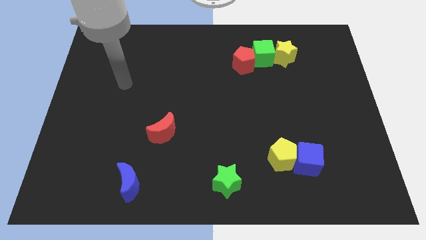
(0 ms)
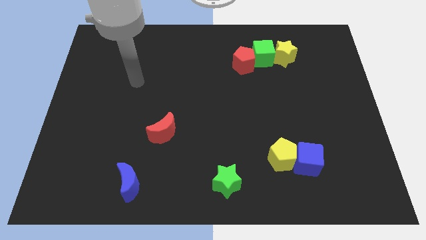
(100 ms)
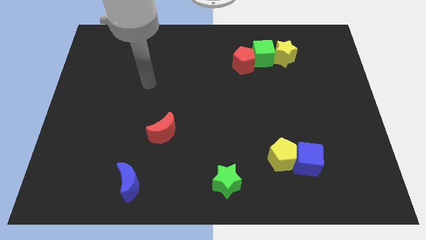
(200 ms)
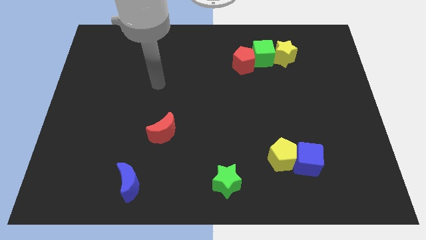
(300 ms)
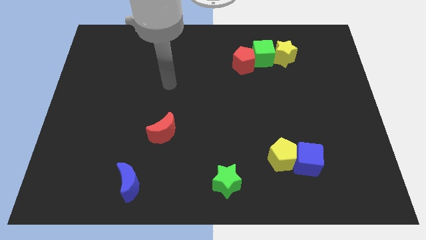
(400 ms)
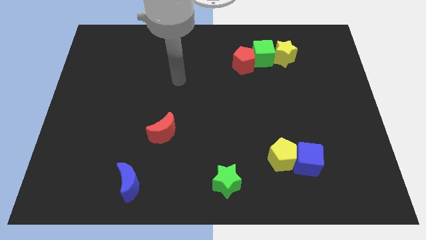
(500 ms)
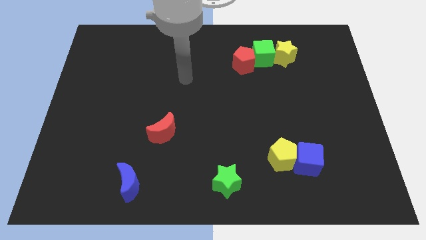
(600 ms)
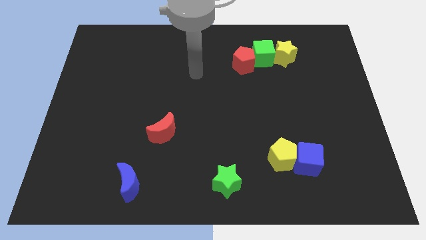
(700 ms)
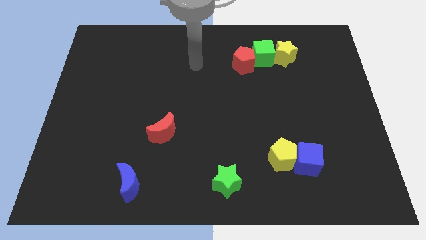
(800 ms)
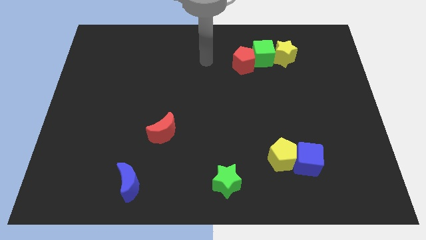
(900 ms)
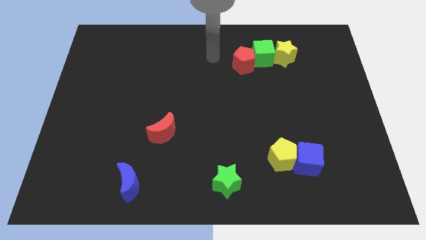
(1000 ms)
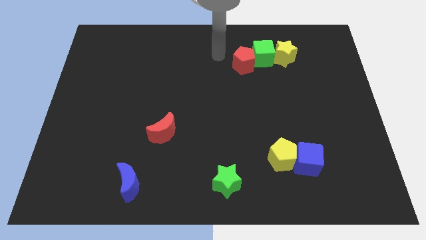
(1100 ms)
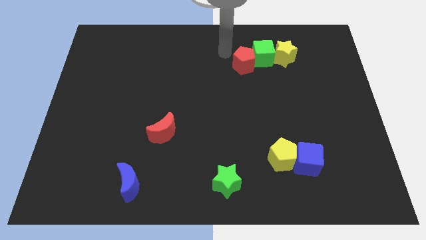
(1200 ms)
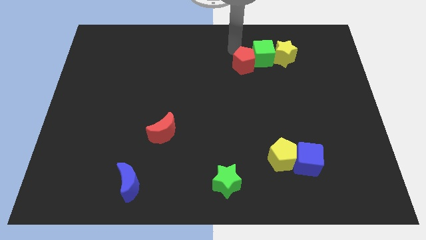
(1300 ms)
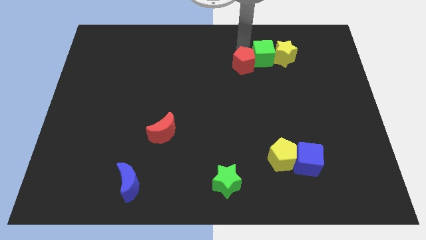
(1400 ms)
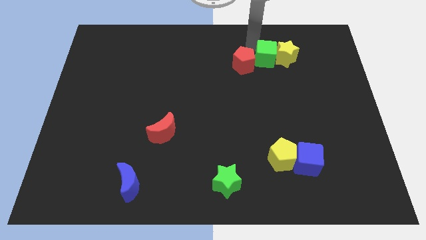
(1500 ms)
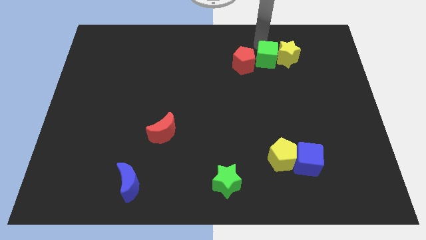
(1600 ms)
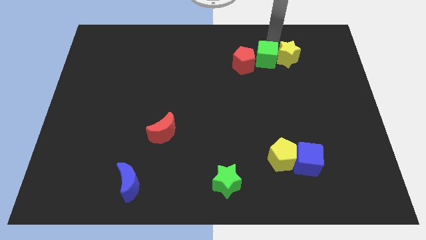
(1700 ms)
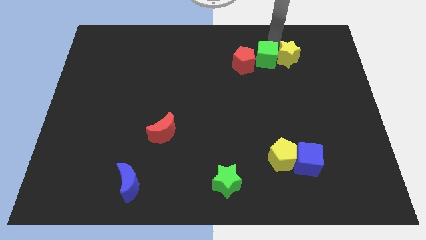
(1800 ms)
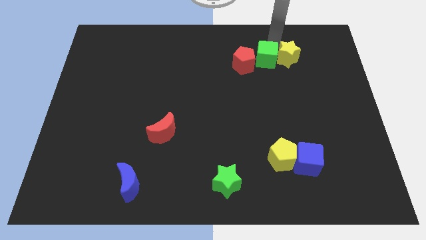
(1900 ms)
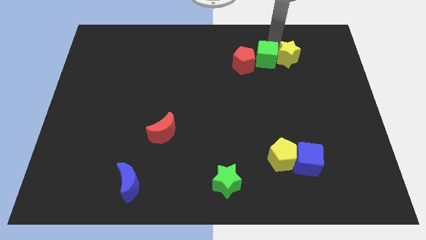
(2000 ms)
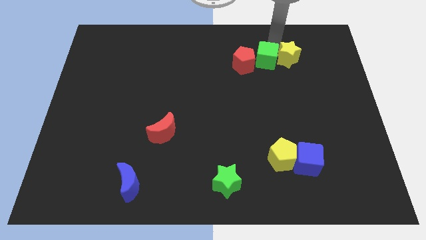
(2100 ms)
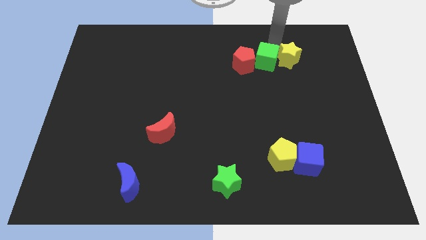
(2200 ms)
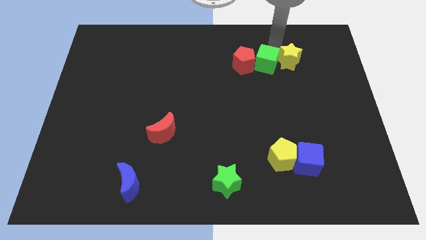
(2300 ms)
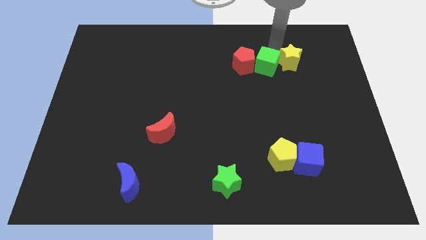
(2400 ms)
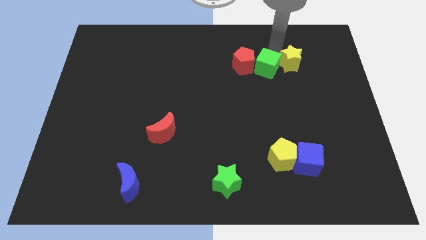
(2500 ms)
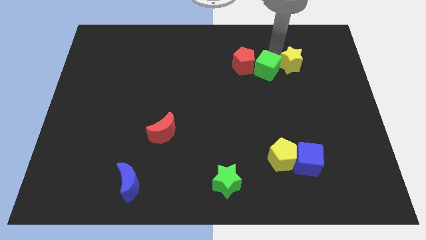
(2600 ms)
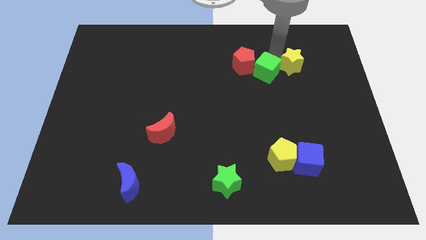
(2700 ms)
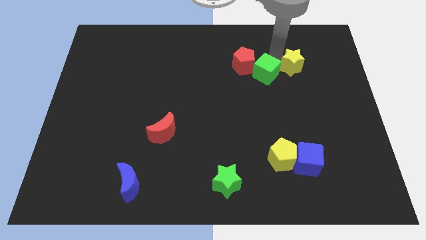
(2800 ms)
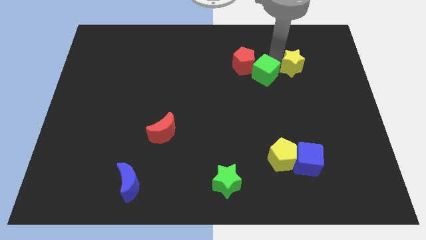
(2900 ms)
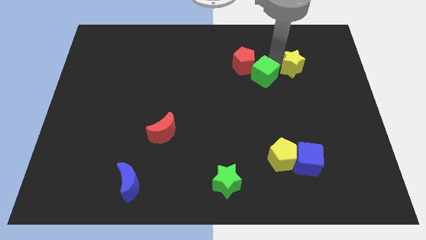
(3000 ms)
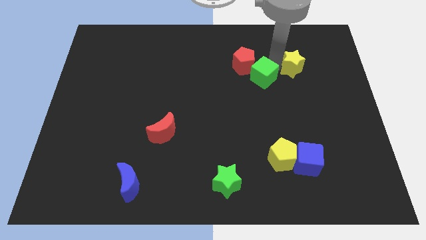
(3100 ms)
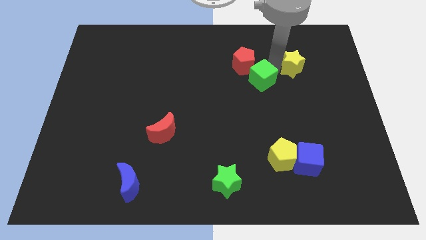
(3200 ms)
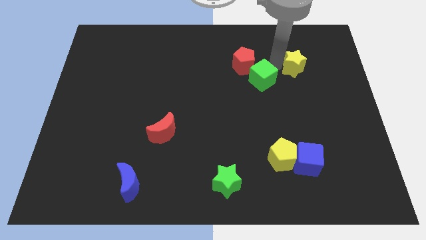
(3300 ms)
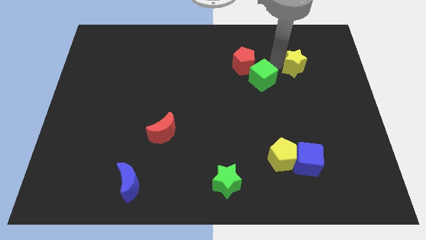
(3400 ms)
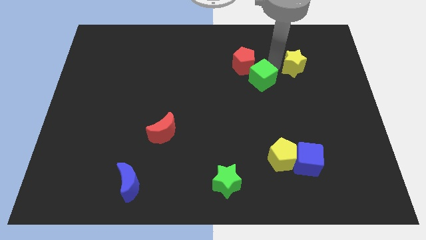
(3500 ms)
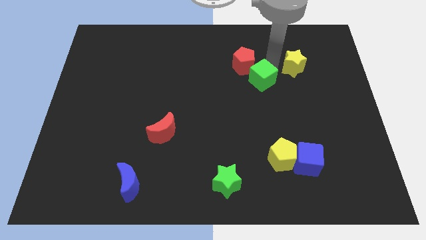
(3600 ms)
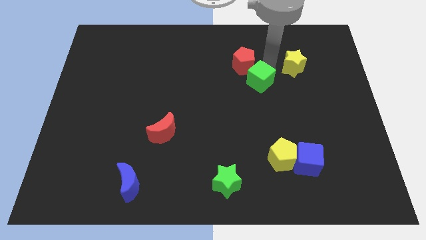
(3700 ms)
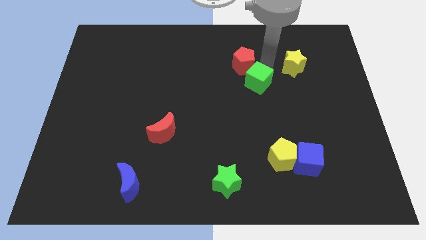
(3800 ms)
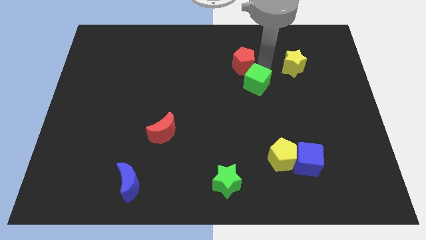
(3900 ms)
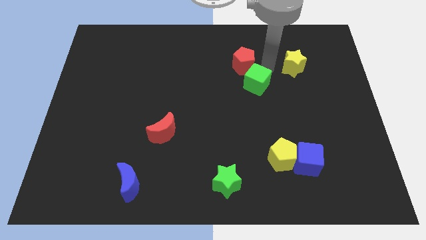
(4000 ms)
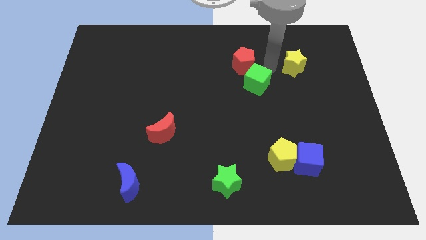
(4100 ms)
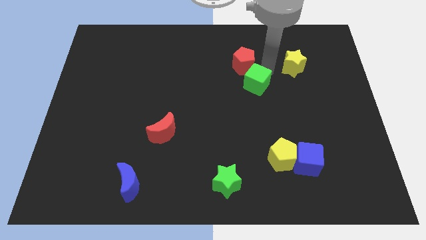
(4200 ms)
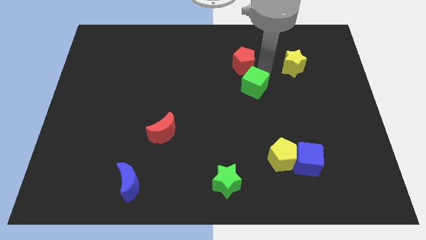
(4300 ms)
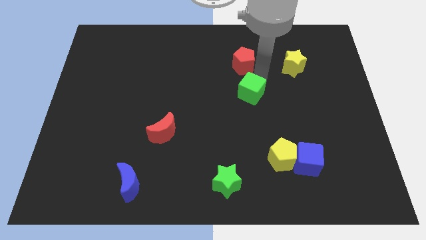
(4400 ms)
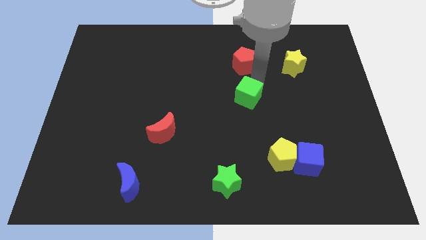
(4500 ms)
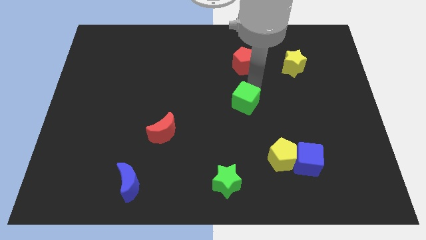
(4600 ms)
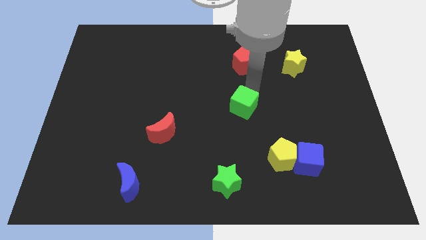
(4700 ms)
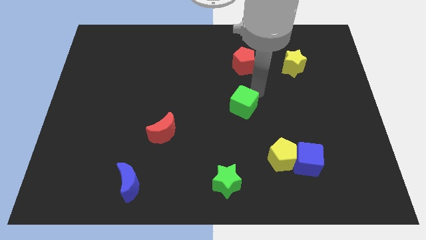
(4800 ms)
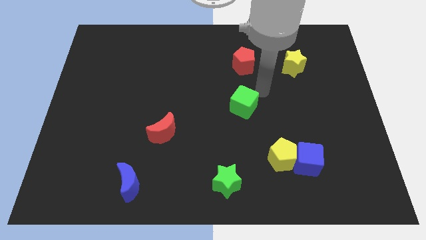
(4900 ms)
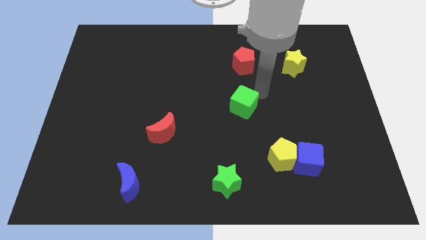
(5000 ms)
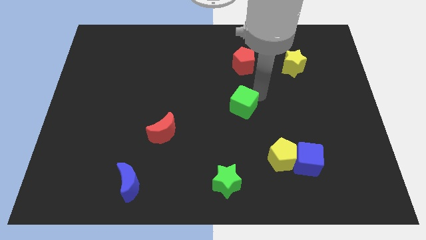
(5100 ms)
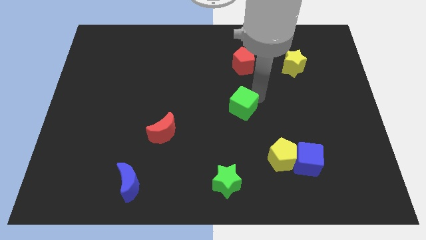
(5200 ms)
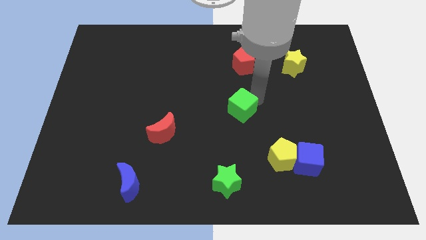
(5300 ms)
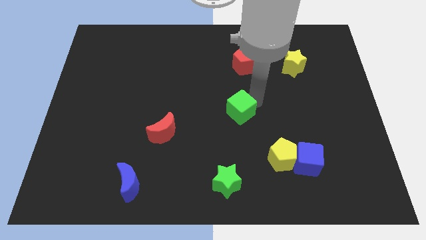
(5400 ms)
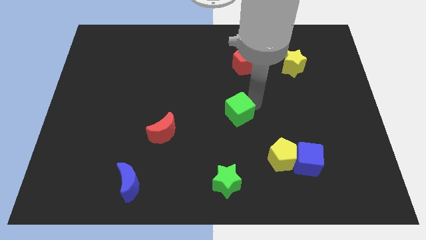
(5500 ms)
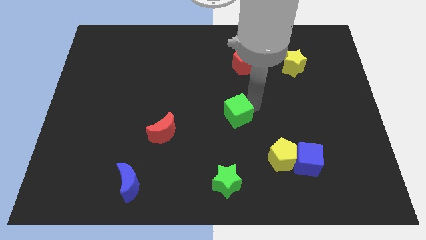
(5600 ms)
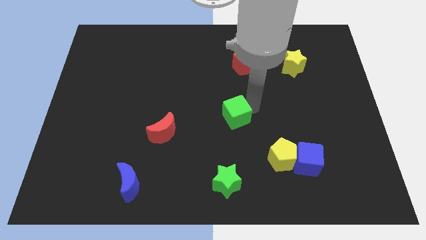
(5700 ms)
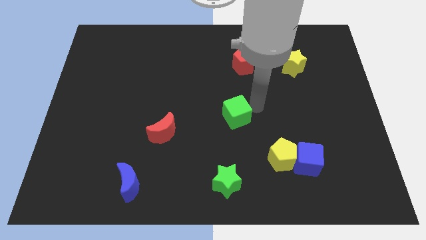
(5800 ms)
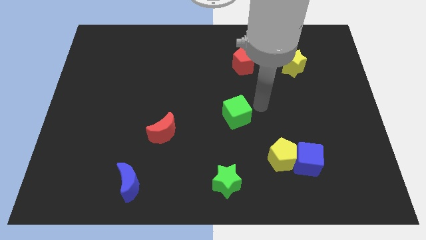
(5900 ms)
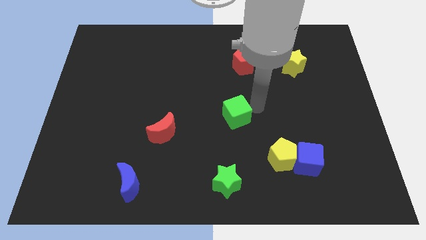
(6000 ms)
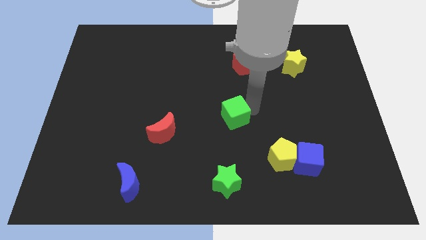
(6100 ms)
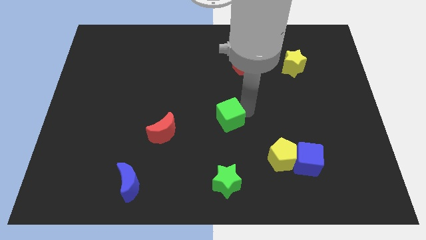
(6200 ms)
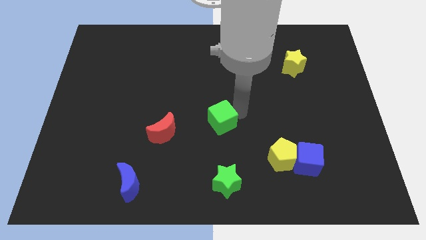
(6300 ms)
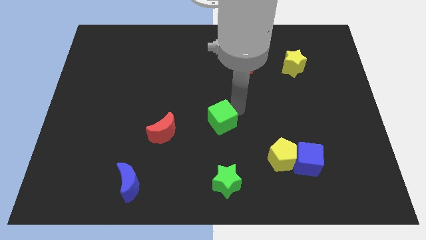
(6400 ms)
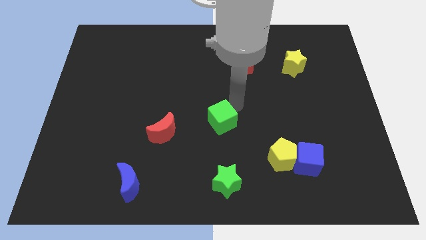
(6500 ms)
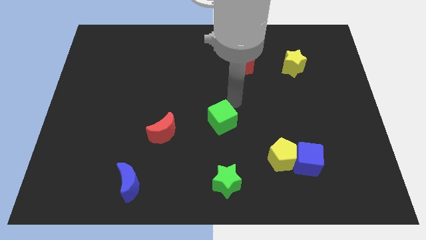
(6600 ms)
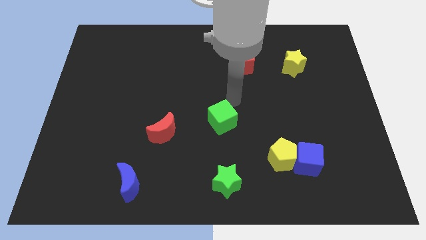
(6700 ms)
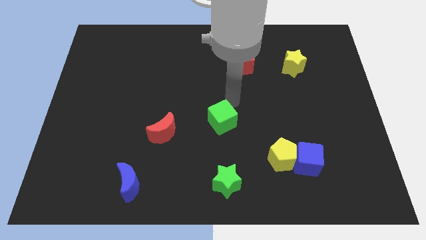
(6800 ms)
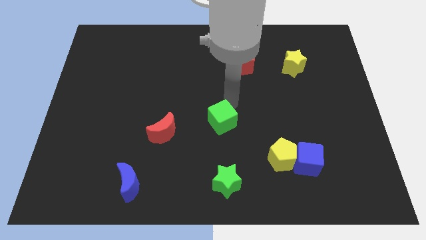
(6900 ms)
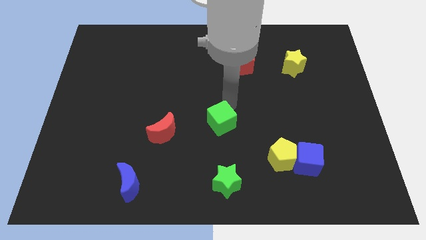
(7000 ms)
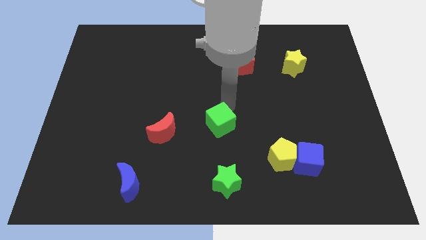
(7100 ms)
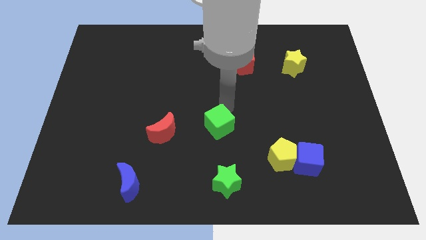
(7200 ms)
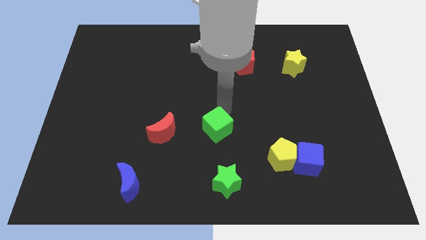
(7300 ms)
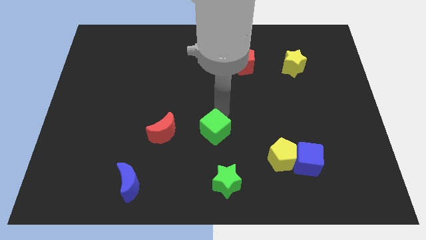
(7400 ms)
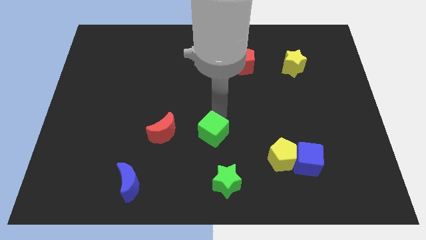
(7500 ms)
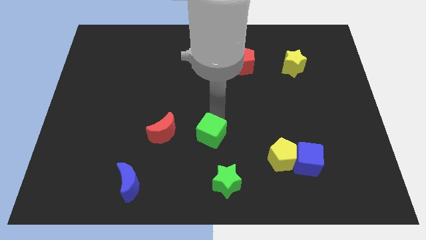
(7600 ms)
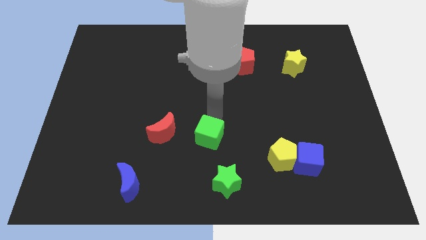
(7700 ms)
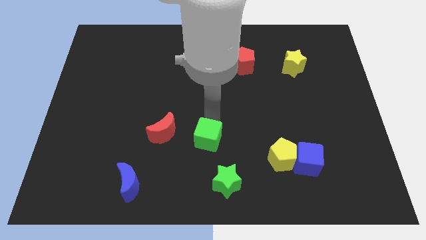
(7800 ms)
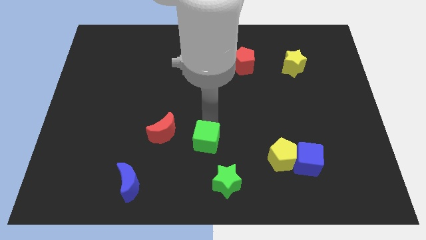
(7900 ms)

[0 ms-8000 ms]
put the green cube to the top left side of the green star
